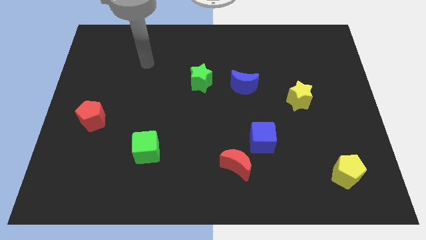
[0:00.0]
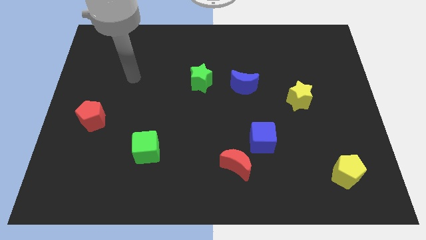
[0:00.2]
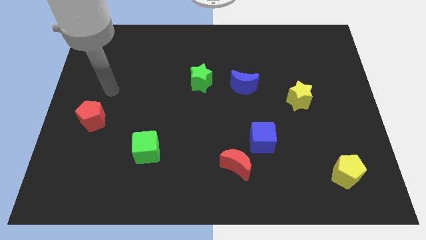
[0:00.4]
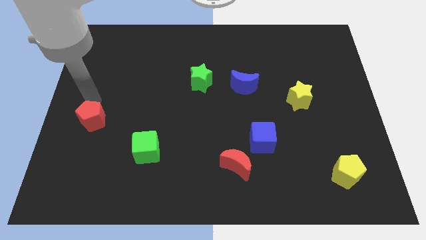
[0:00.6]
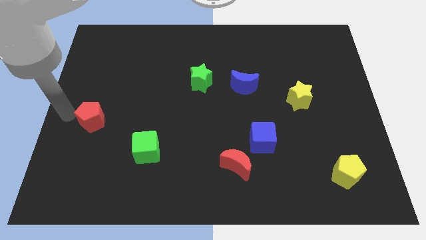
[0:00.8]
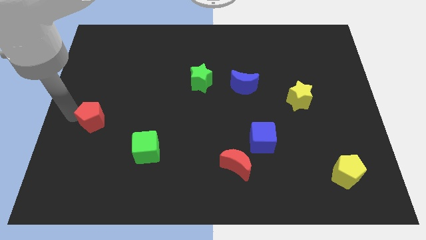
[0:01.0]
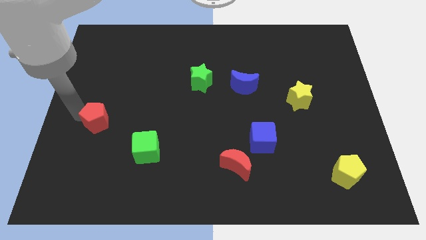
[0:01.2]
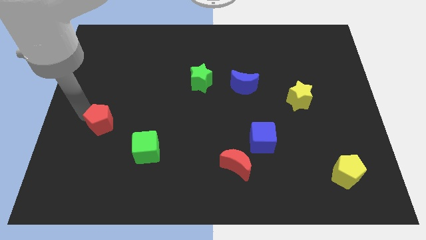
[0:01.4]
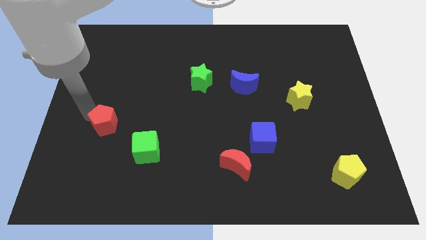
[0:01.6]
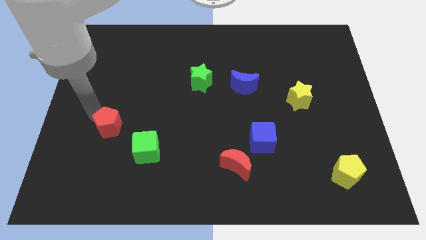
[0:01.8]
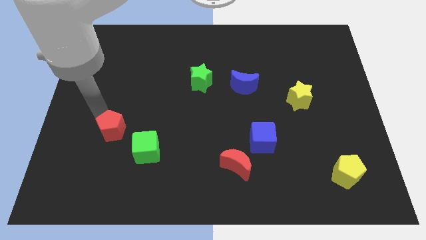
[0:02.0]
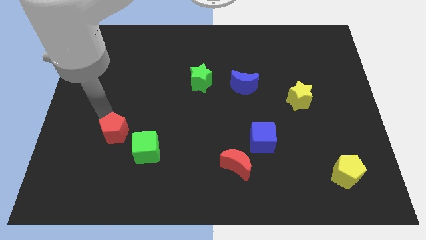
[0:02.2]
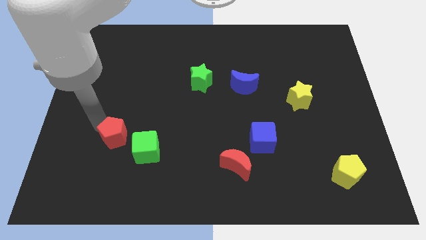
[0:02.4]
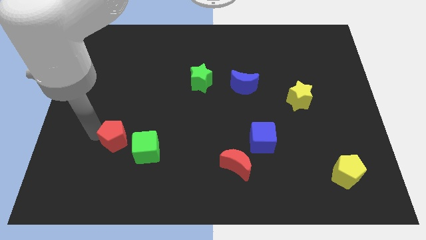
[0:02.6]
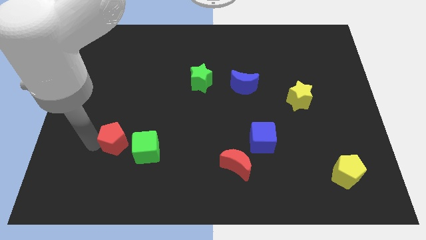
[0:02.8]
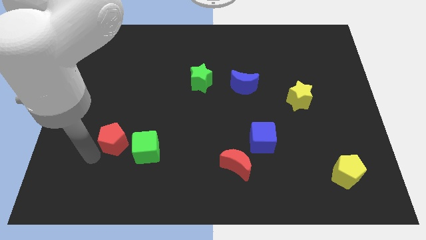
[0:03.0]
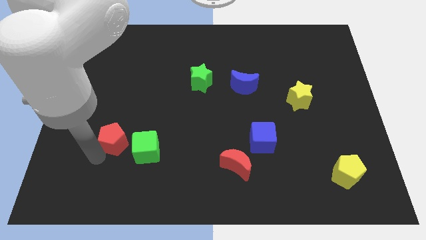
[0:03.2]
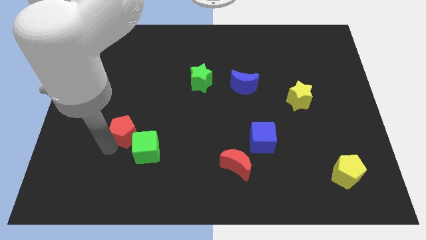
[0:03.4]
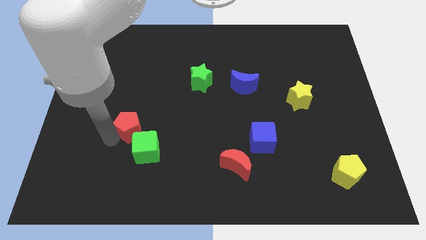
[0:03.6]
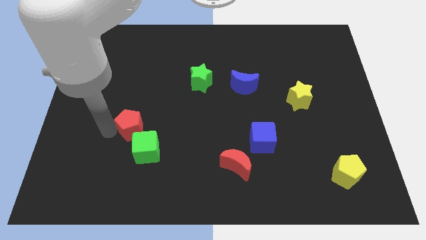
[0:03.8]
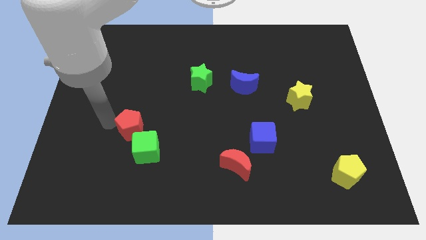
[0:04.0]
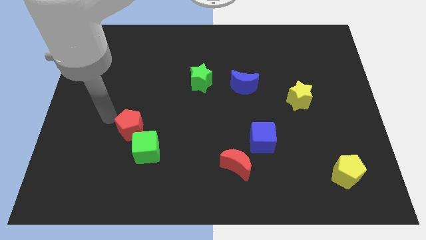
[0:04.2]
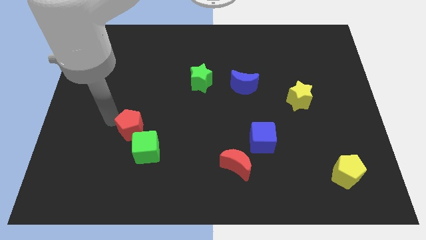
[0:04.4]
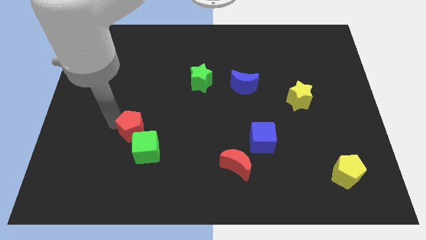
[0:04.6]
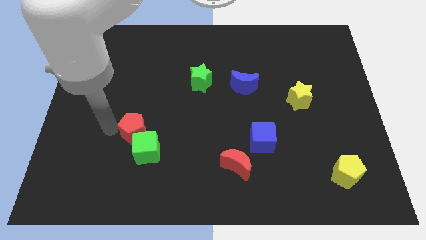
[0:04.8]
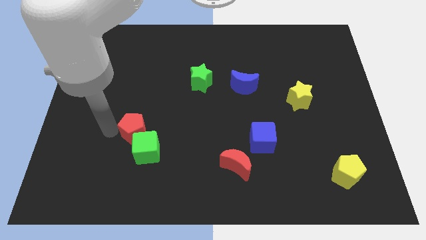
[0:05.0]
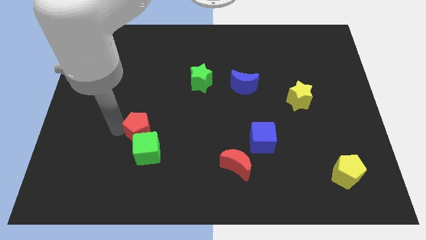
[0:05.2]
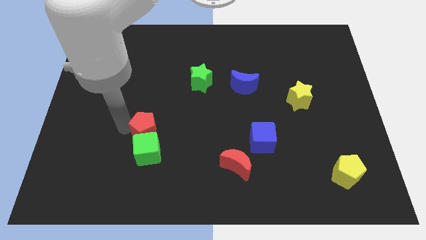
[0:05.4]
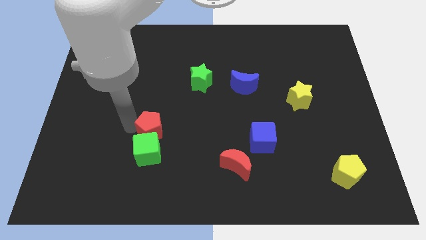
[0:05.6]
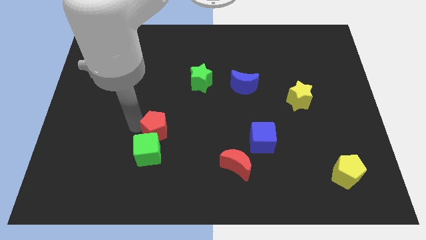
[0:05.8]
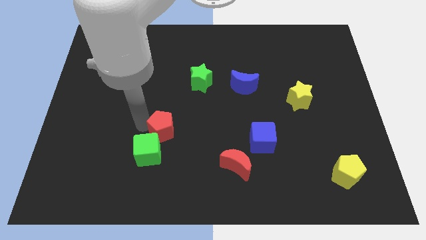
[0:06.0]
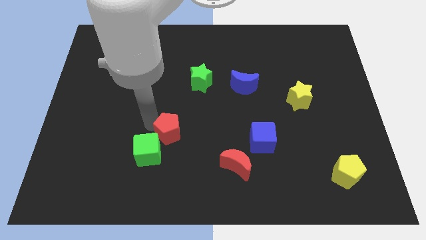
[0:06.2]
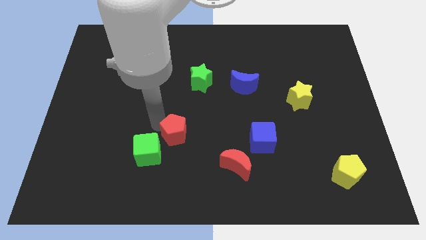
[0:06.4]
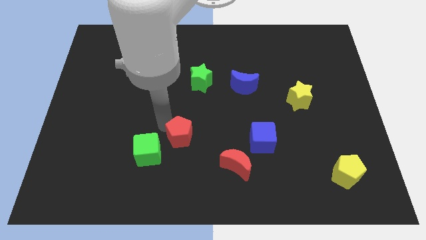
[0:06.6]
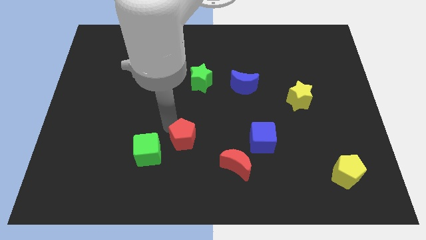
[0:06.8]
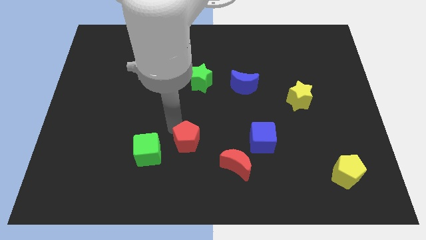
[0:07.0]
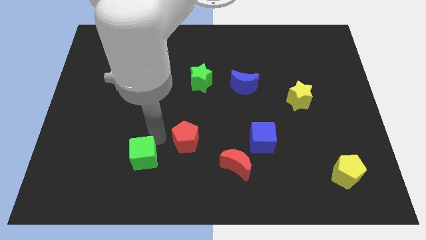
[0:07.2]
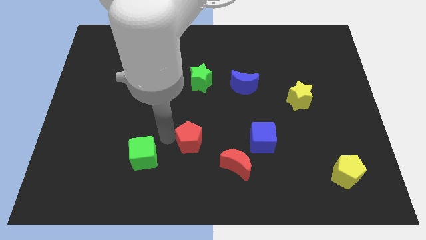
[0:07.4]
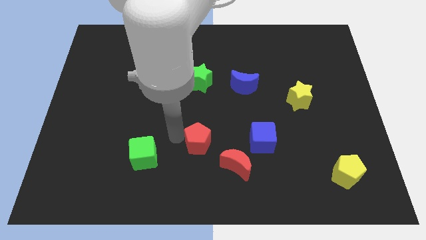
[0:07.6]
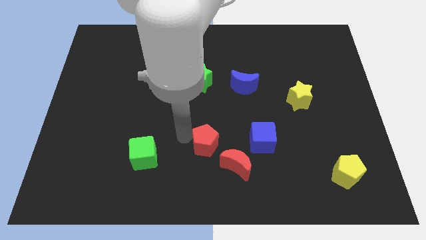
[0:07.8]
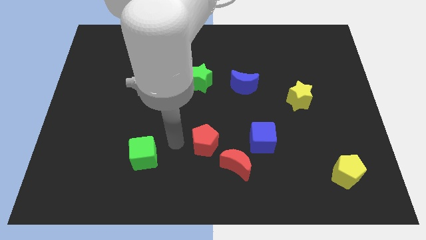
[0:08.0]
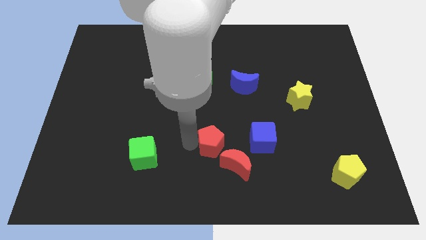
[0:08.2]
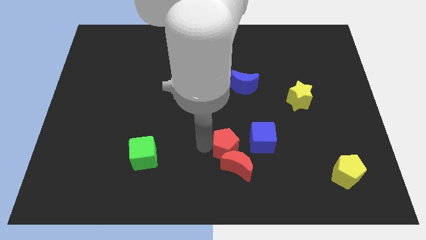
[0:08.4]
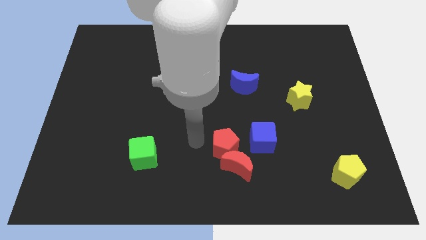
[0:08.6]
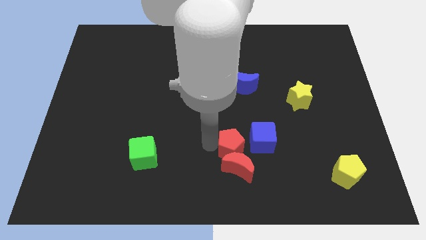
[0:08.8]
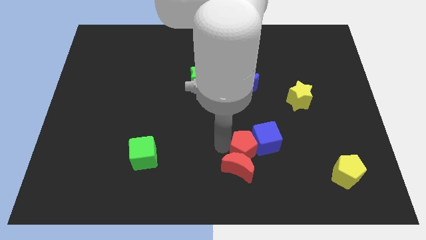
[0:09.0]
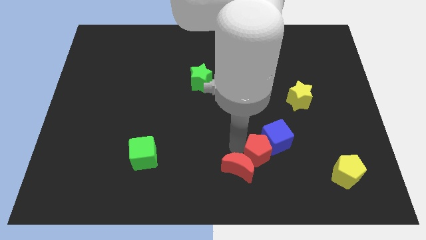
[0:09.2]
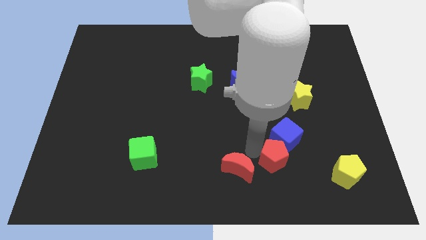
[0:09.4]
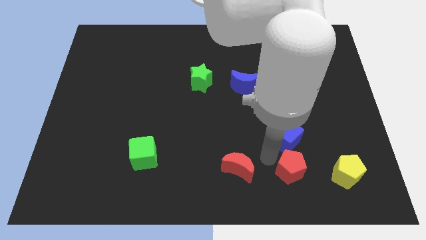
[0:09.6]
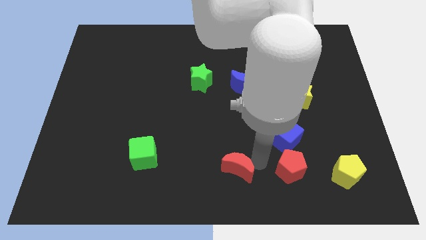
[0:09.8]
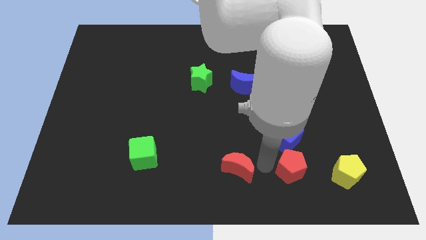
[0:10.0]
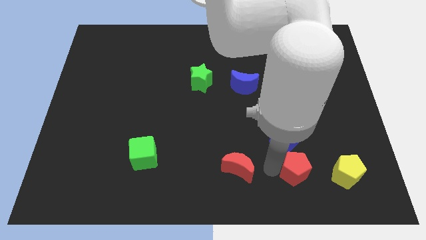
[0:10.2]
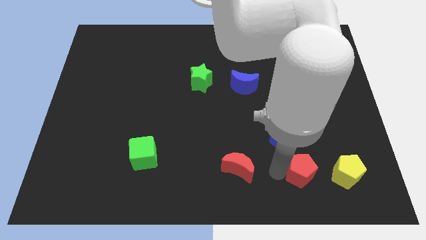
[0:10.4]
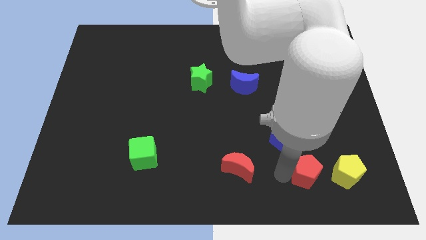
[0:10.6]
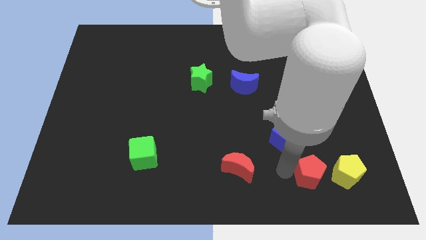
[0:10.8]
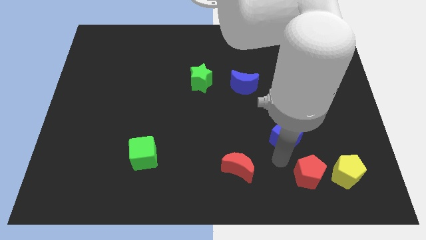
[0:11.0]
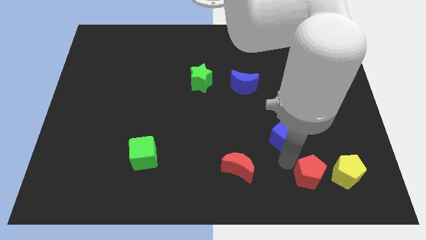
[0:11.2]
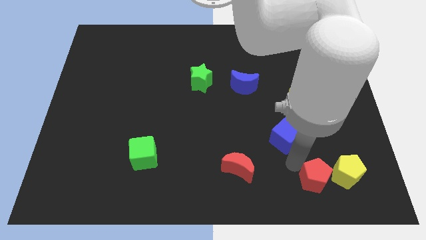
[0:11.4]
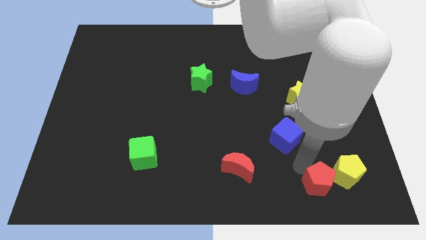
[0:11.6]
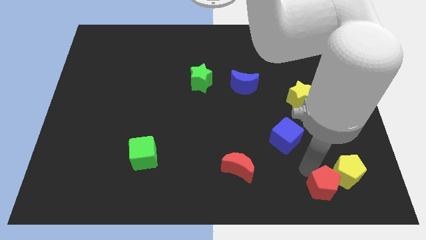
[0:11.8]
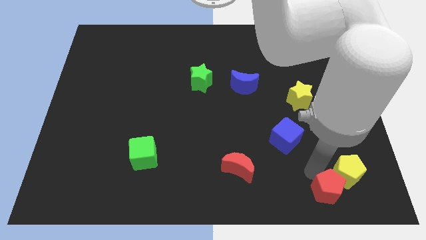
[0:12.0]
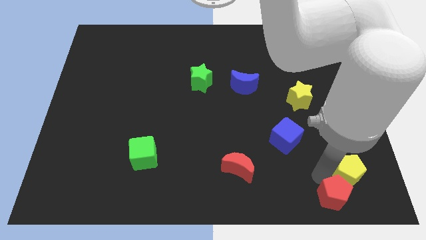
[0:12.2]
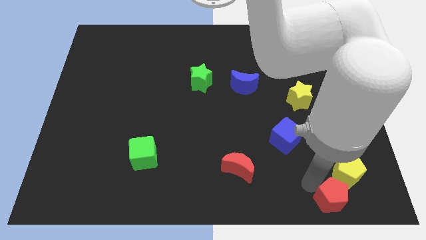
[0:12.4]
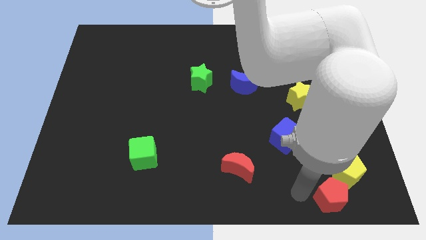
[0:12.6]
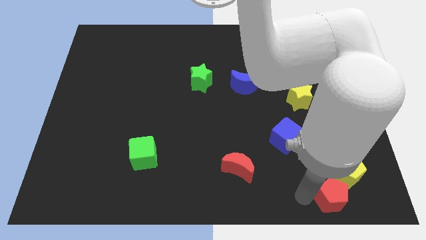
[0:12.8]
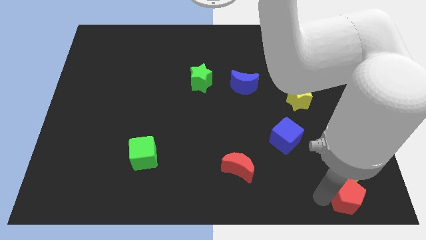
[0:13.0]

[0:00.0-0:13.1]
put the red pentagon to the bottom right

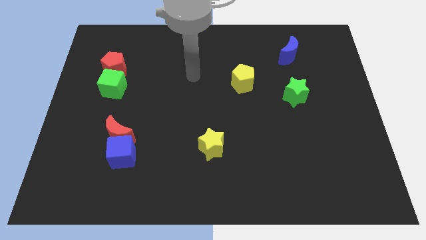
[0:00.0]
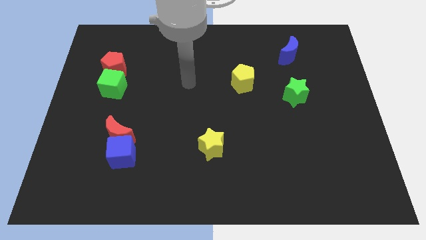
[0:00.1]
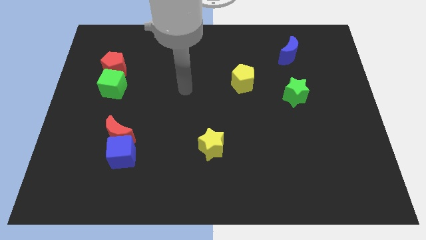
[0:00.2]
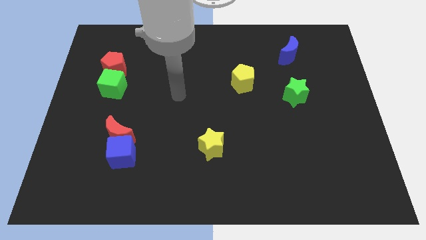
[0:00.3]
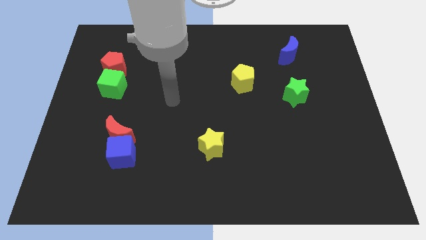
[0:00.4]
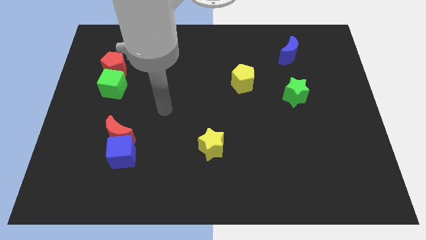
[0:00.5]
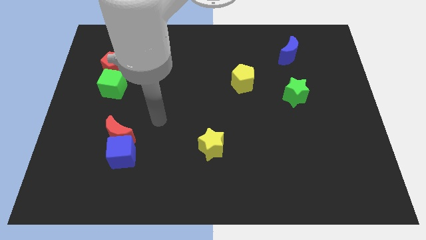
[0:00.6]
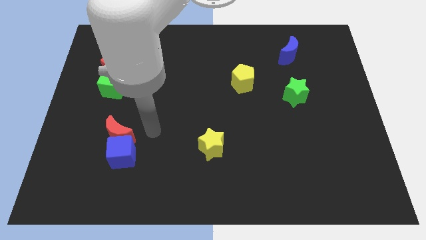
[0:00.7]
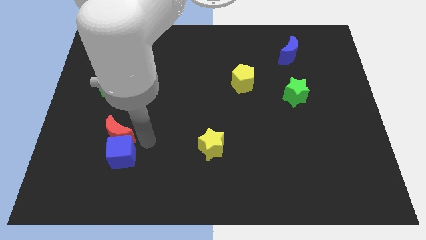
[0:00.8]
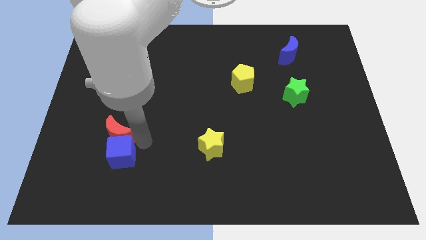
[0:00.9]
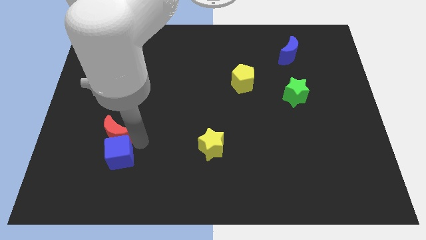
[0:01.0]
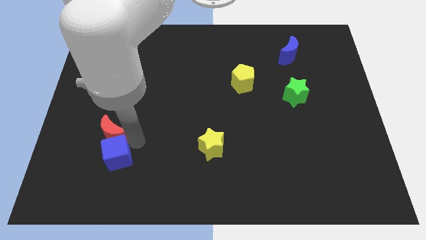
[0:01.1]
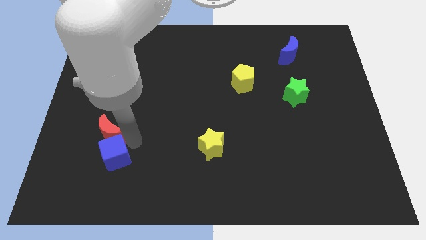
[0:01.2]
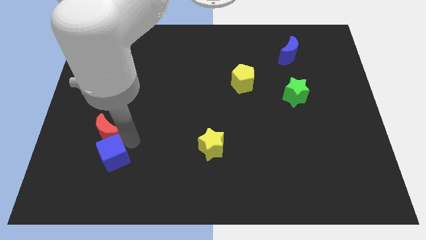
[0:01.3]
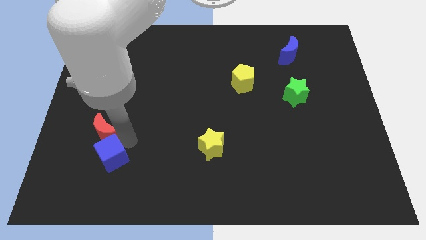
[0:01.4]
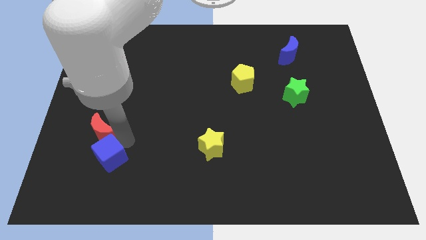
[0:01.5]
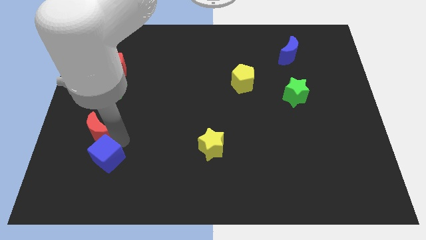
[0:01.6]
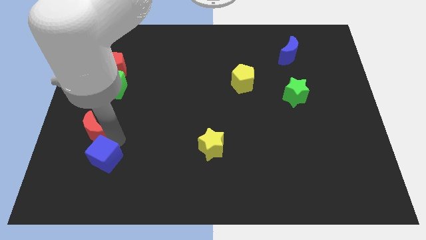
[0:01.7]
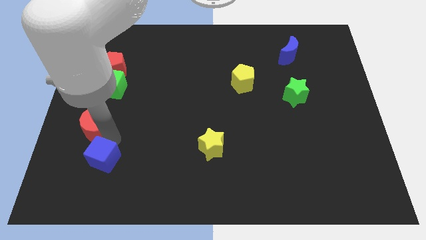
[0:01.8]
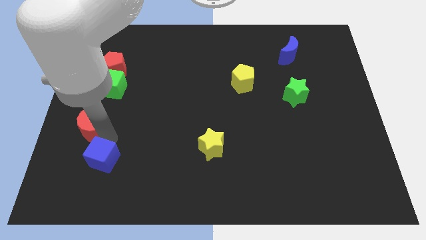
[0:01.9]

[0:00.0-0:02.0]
slide the red moon to the center left
